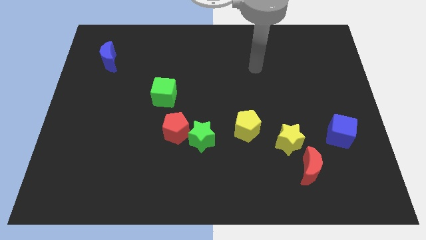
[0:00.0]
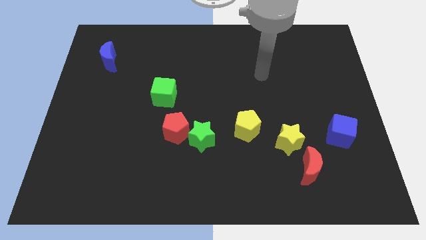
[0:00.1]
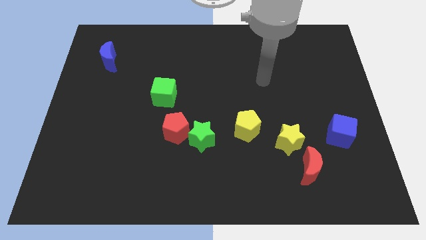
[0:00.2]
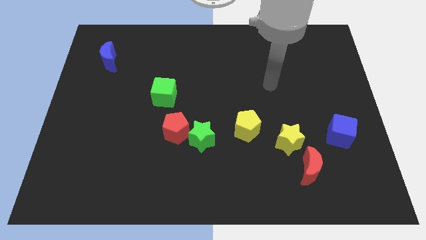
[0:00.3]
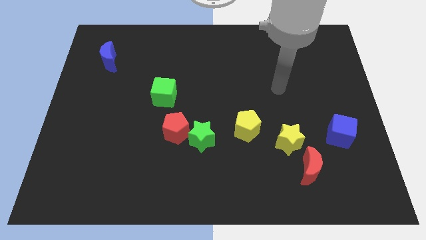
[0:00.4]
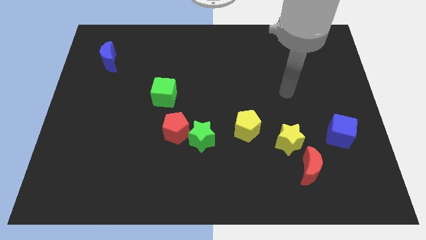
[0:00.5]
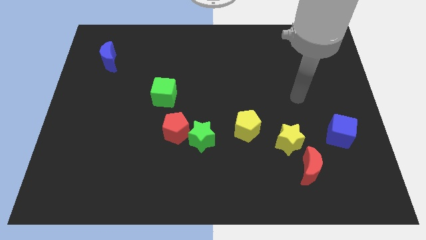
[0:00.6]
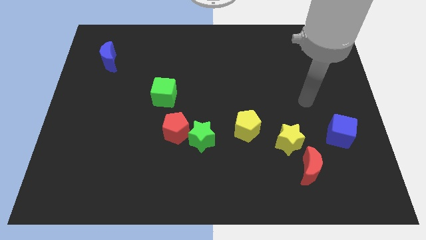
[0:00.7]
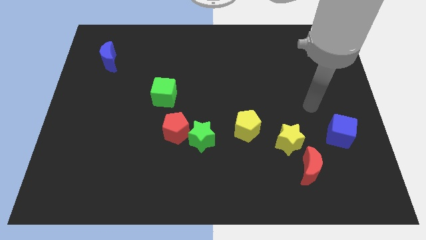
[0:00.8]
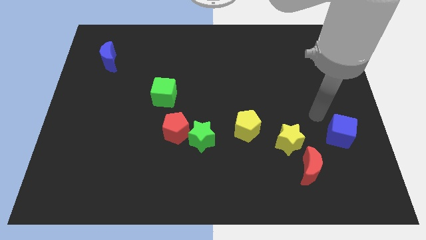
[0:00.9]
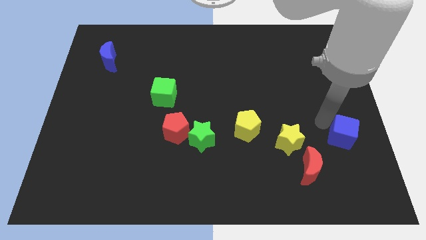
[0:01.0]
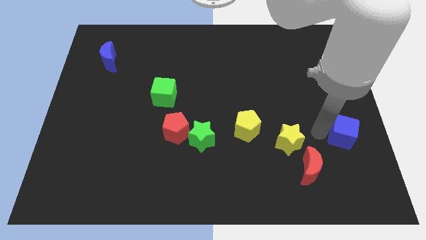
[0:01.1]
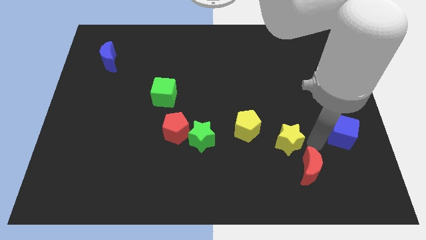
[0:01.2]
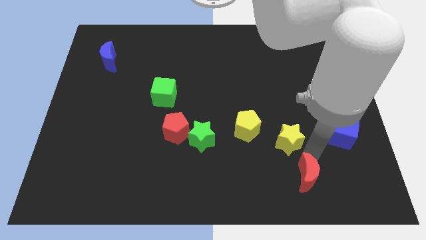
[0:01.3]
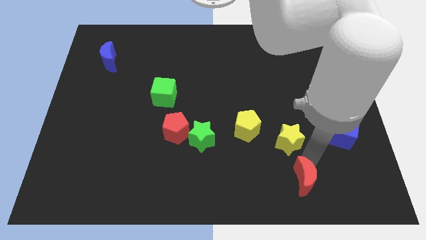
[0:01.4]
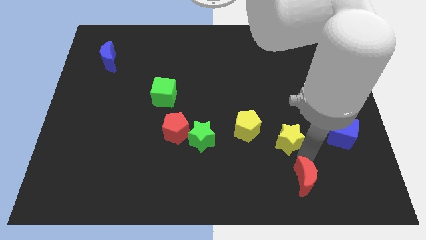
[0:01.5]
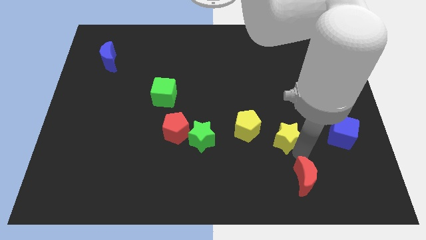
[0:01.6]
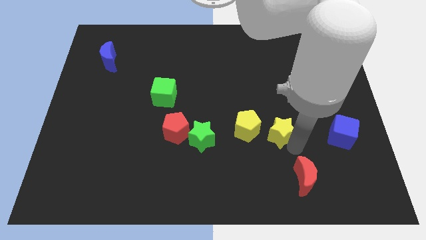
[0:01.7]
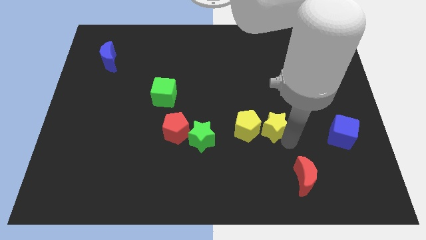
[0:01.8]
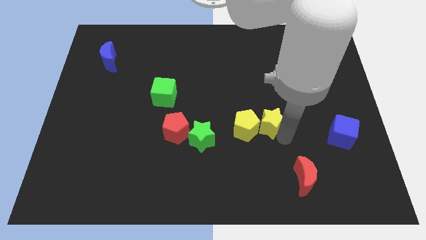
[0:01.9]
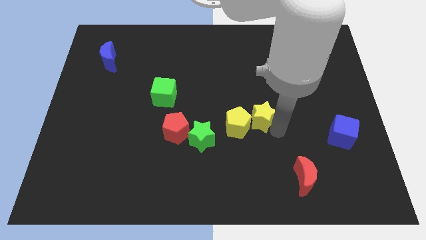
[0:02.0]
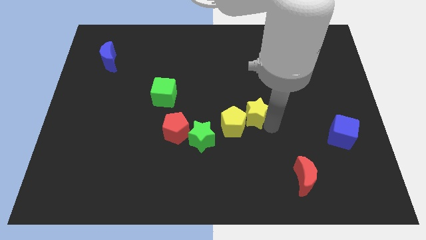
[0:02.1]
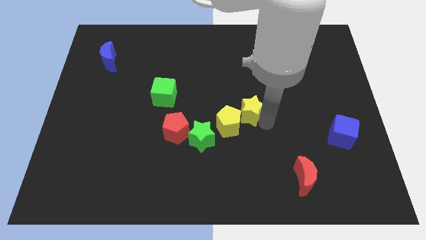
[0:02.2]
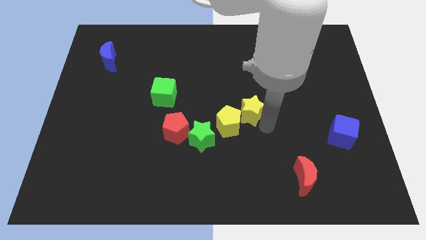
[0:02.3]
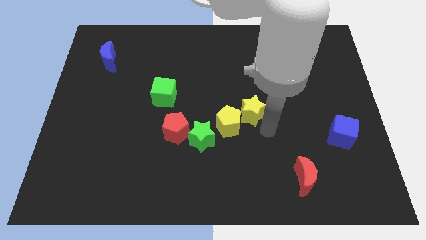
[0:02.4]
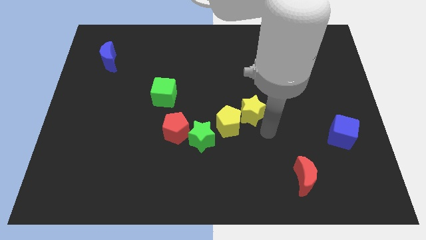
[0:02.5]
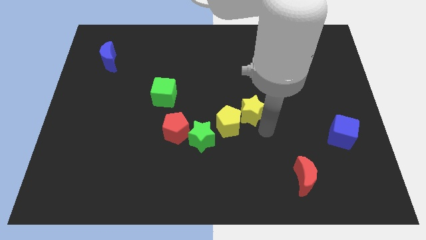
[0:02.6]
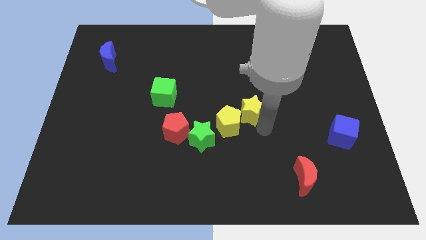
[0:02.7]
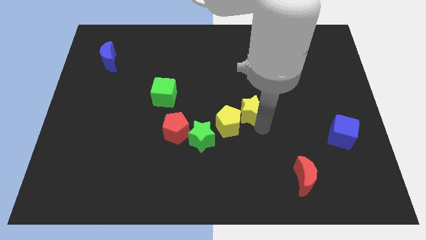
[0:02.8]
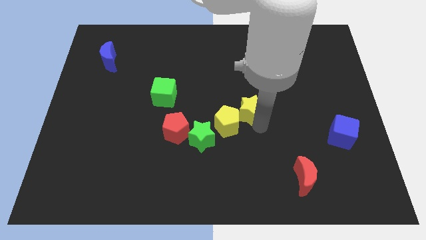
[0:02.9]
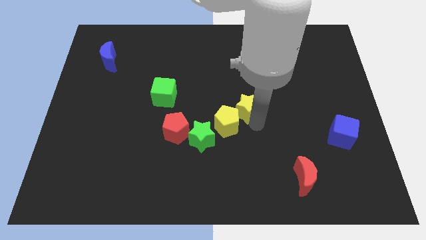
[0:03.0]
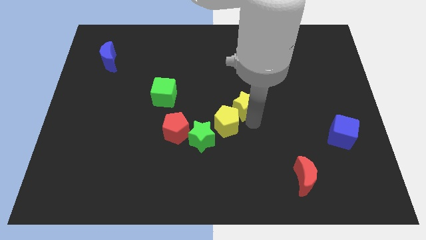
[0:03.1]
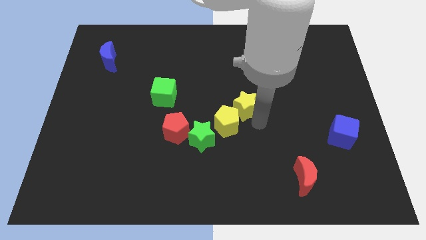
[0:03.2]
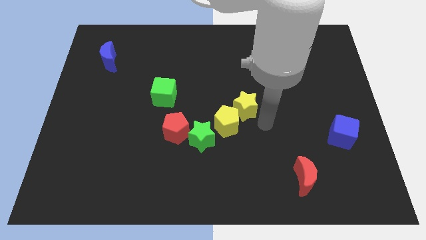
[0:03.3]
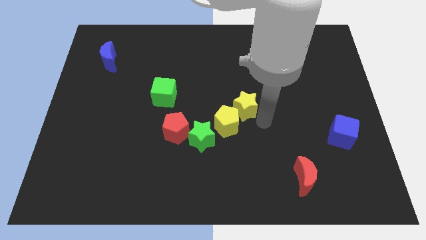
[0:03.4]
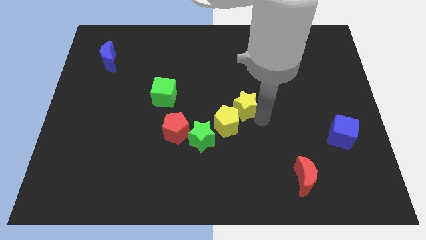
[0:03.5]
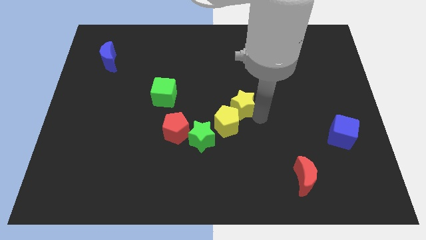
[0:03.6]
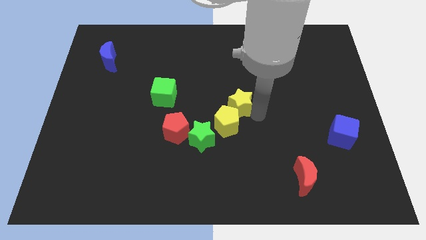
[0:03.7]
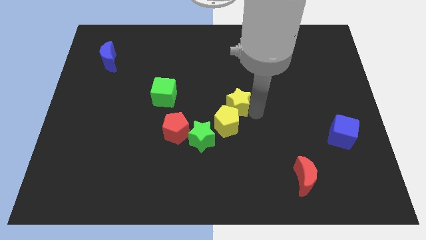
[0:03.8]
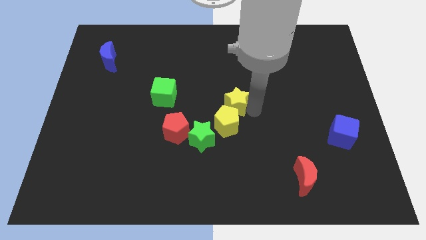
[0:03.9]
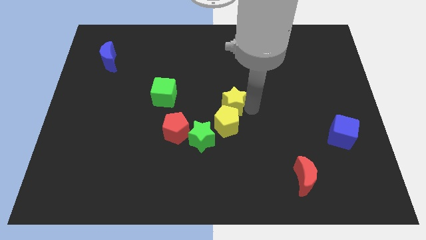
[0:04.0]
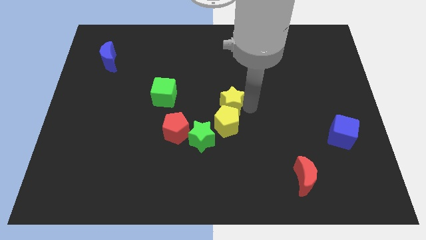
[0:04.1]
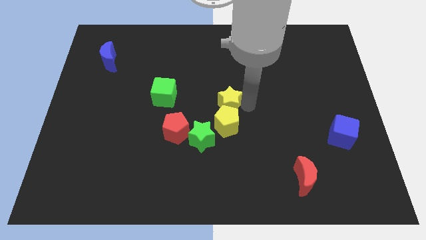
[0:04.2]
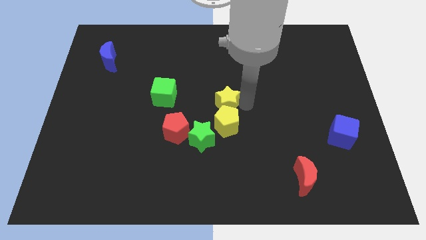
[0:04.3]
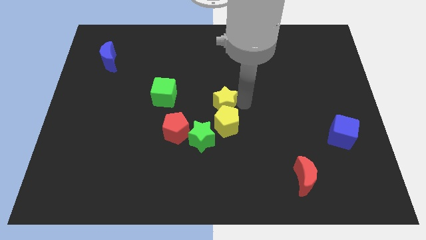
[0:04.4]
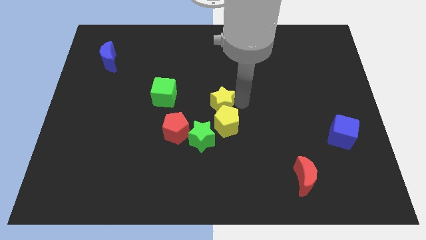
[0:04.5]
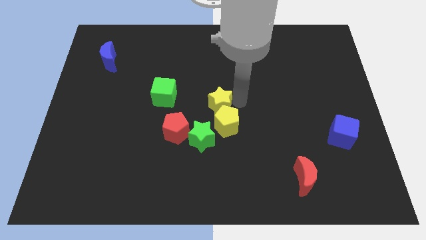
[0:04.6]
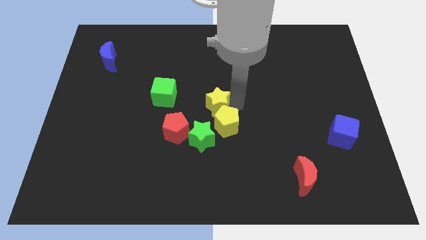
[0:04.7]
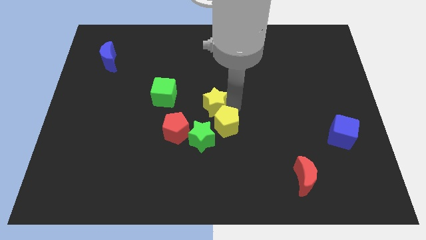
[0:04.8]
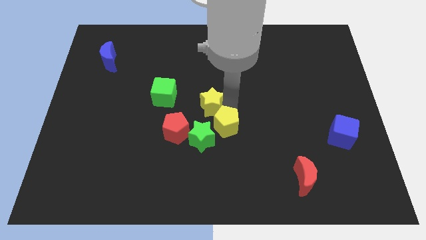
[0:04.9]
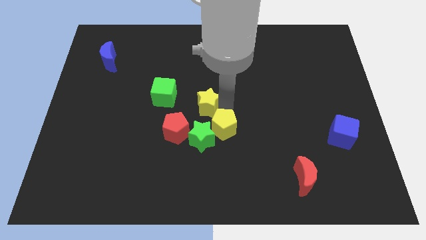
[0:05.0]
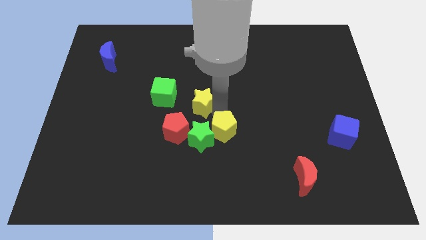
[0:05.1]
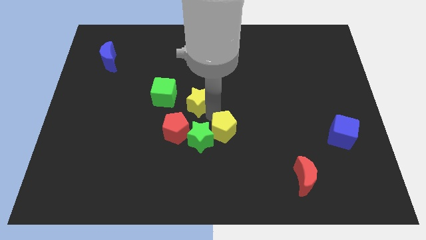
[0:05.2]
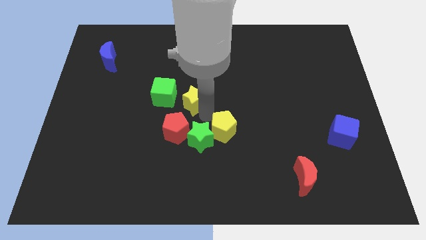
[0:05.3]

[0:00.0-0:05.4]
slide the yellow star up and to the left diagonally

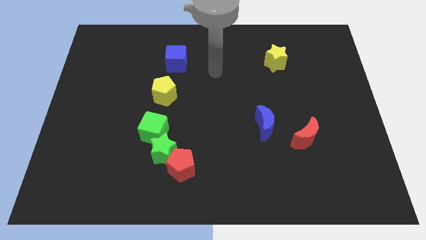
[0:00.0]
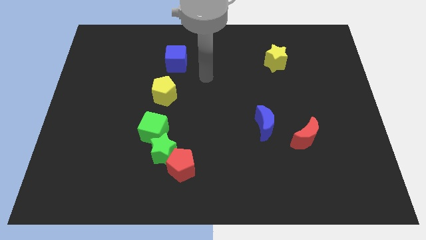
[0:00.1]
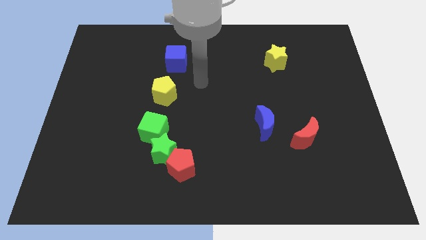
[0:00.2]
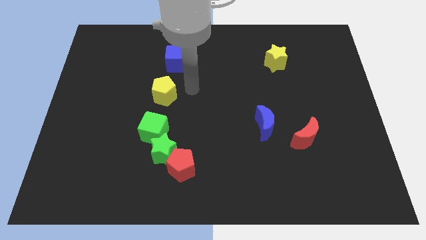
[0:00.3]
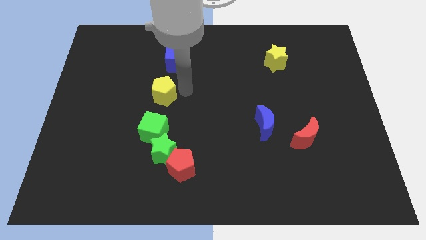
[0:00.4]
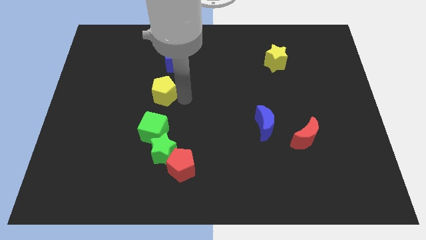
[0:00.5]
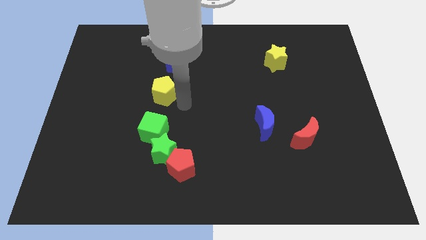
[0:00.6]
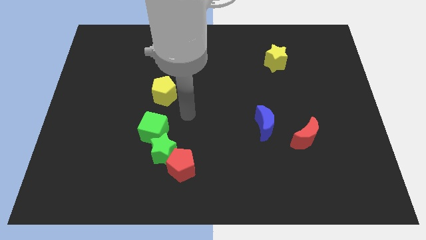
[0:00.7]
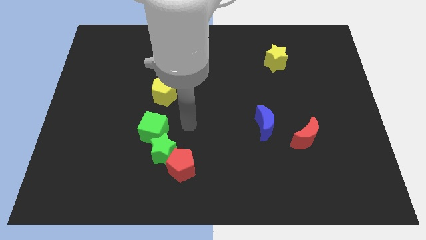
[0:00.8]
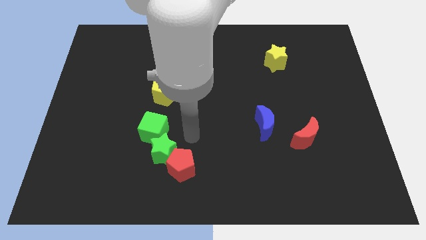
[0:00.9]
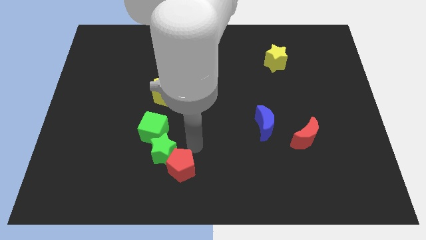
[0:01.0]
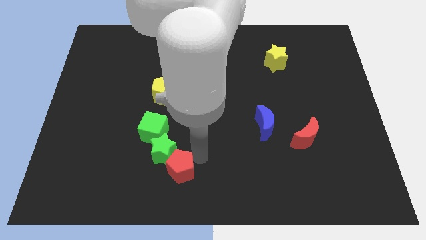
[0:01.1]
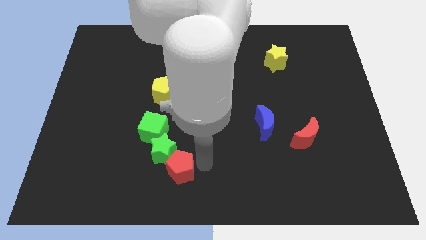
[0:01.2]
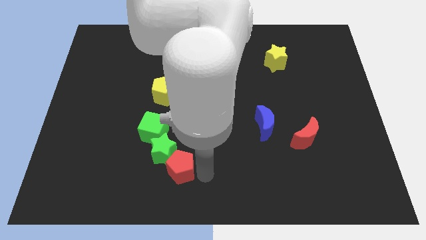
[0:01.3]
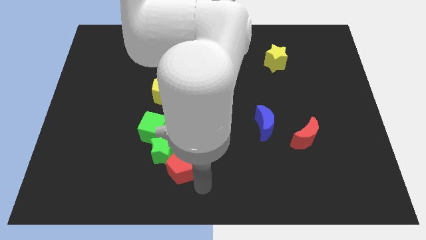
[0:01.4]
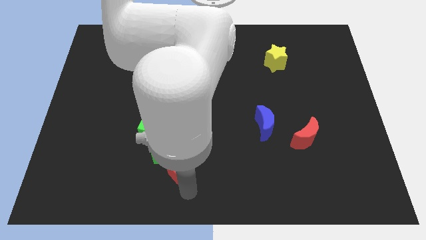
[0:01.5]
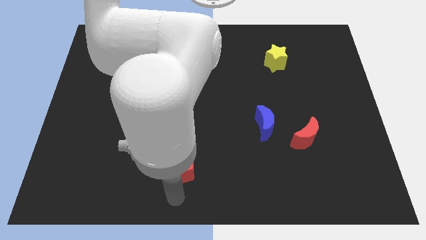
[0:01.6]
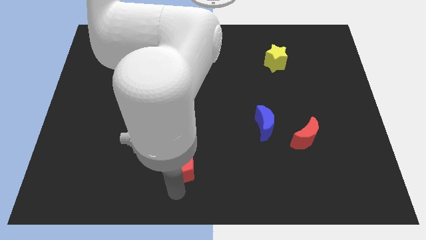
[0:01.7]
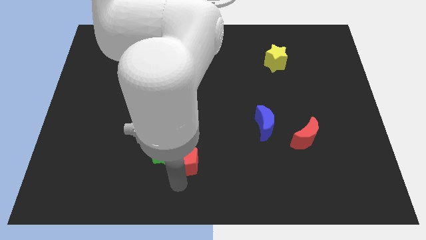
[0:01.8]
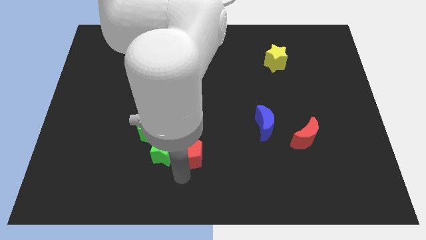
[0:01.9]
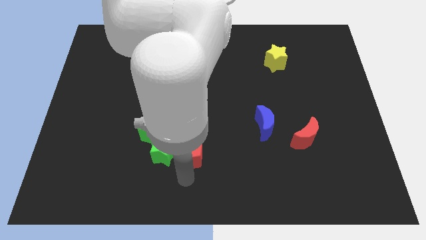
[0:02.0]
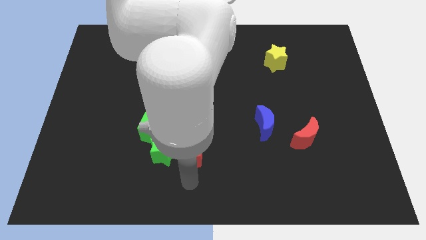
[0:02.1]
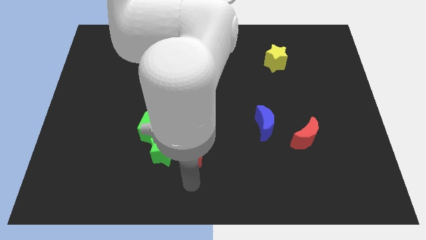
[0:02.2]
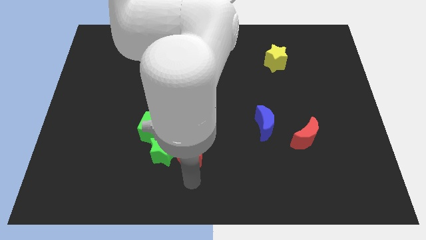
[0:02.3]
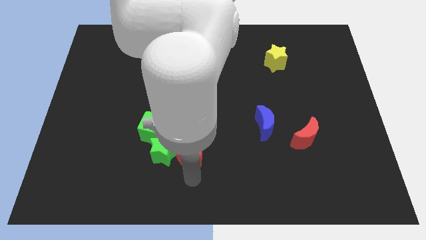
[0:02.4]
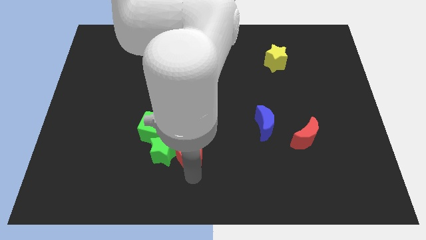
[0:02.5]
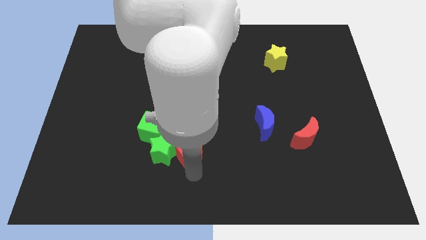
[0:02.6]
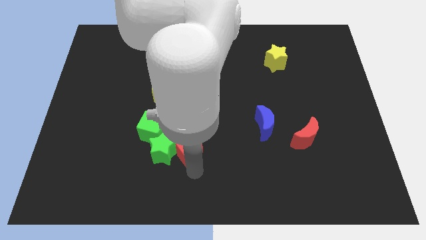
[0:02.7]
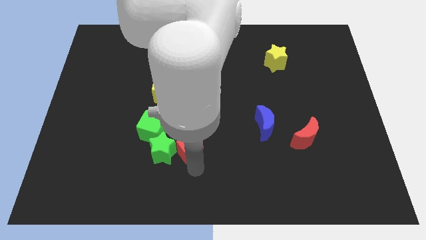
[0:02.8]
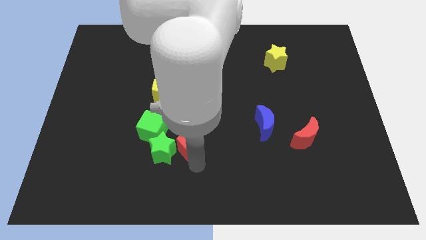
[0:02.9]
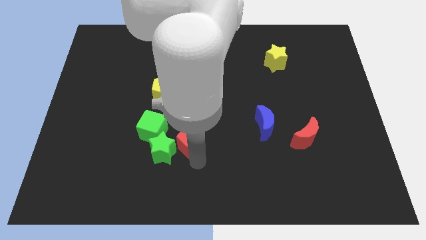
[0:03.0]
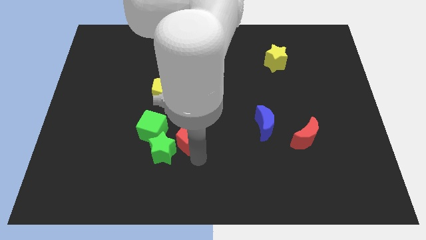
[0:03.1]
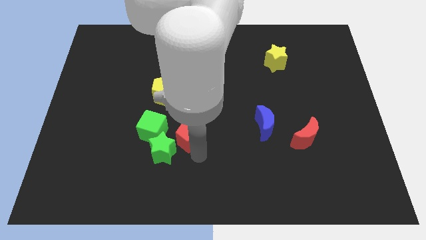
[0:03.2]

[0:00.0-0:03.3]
slightly move the red pentagon upwards
